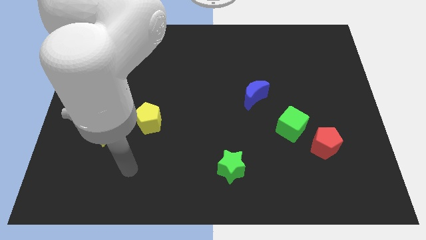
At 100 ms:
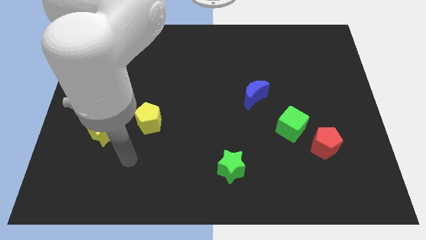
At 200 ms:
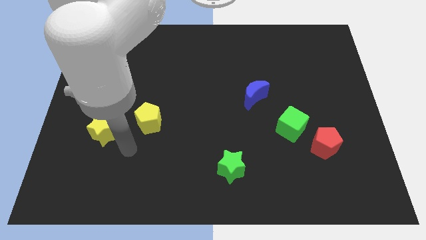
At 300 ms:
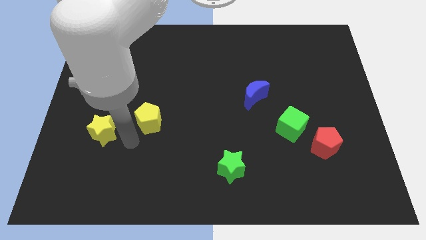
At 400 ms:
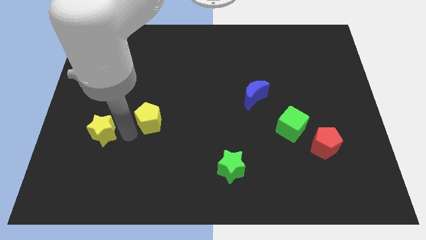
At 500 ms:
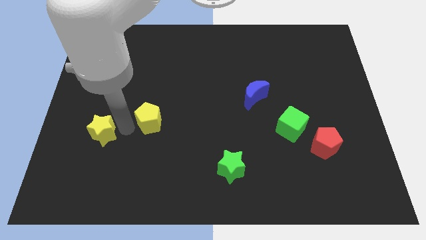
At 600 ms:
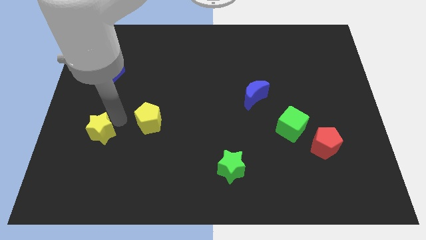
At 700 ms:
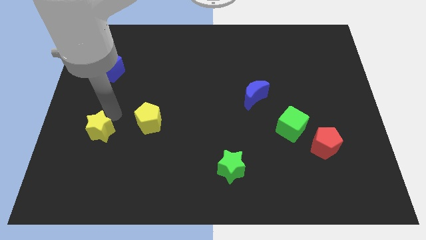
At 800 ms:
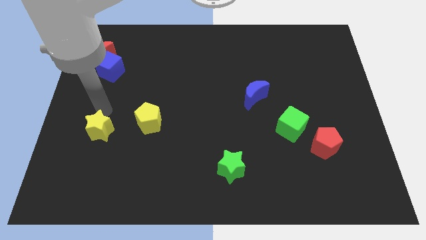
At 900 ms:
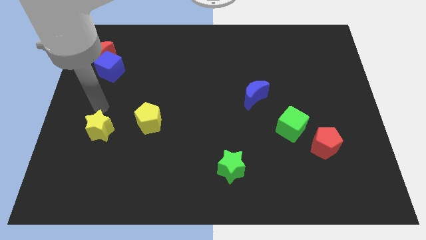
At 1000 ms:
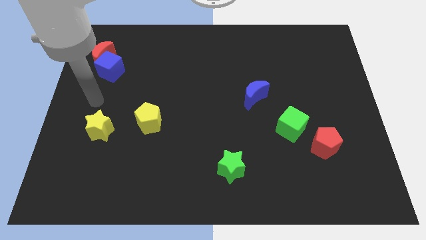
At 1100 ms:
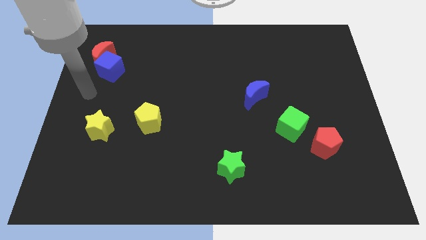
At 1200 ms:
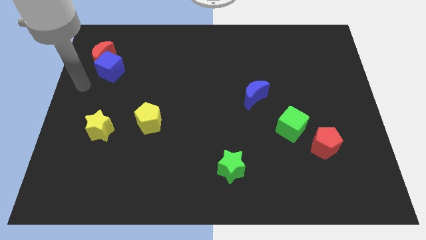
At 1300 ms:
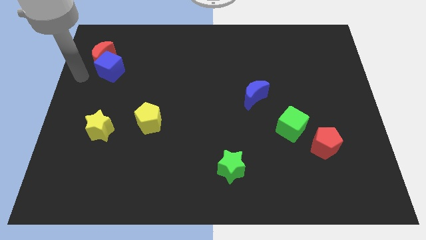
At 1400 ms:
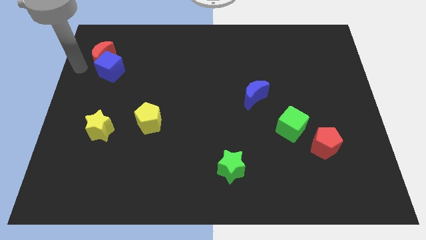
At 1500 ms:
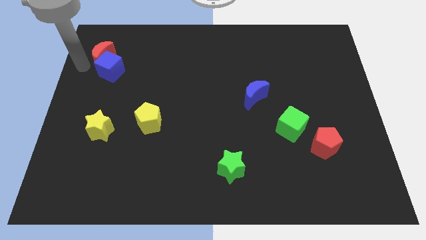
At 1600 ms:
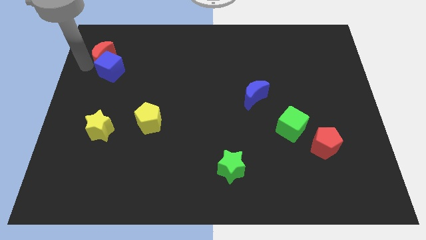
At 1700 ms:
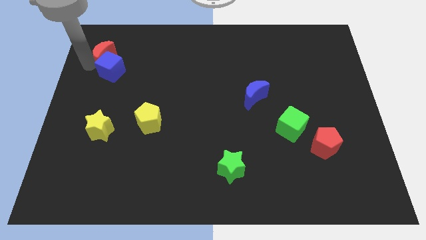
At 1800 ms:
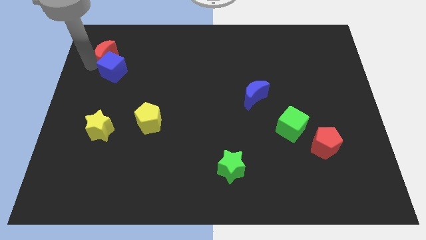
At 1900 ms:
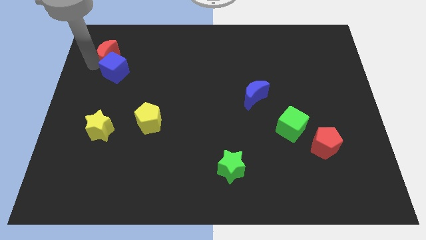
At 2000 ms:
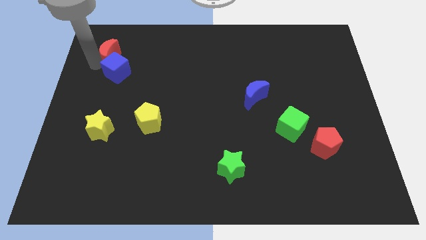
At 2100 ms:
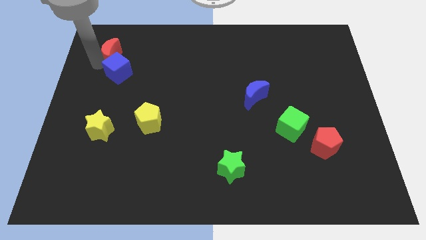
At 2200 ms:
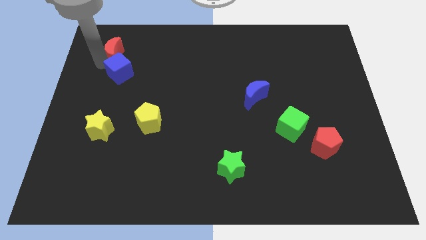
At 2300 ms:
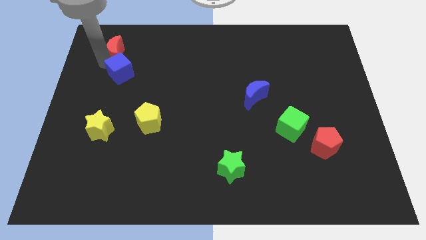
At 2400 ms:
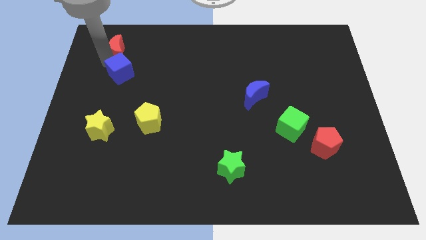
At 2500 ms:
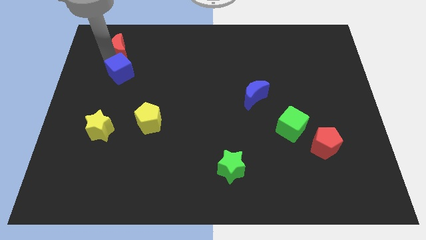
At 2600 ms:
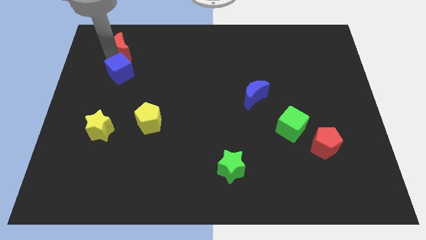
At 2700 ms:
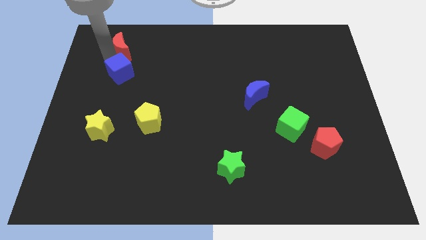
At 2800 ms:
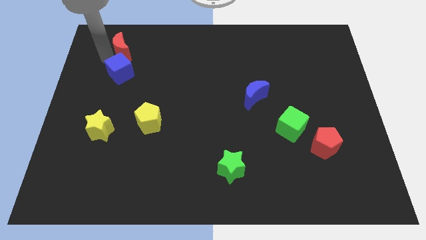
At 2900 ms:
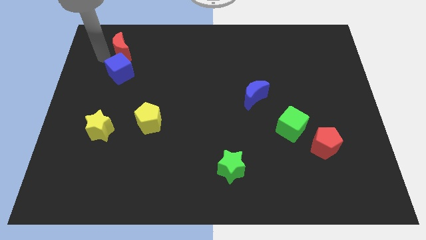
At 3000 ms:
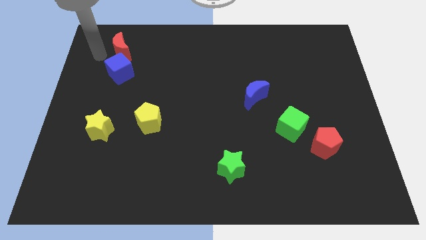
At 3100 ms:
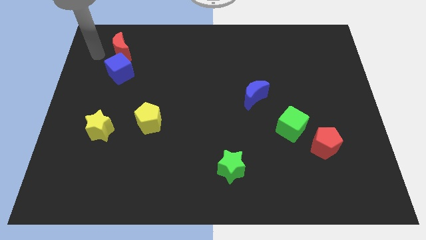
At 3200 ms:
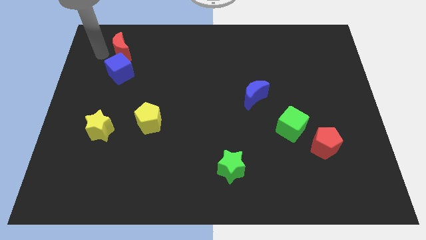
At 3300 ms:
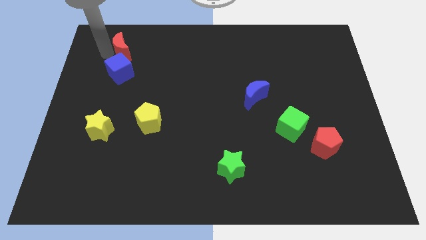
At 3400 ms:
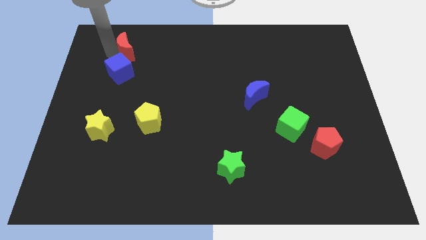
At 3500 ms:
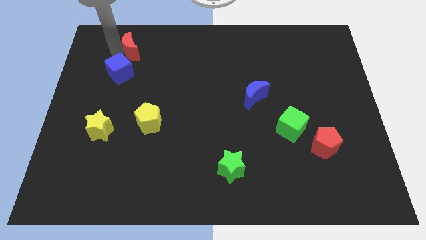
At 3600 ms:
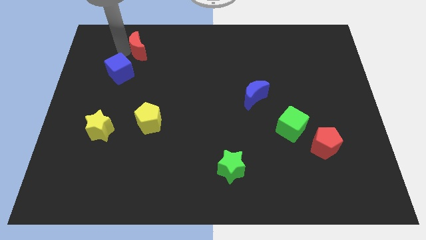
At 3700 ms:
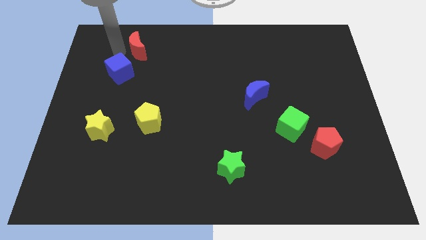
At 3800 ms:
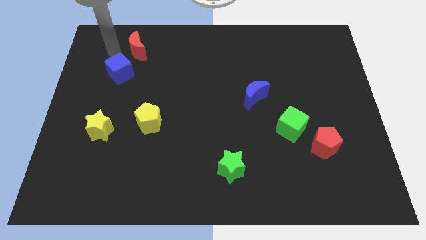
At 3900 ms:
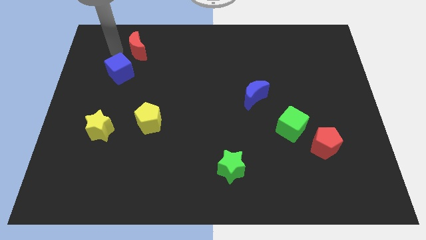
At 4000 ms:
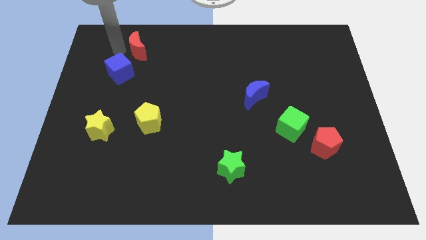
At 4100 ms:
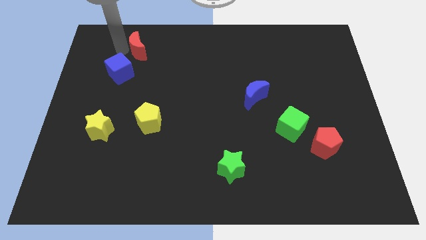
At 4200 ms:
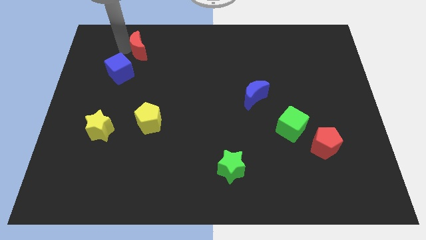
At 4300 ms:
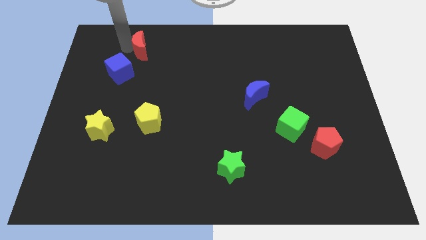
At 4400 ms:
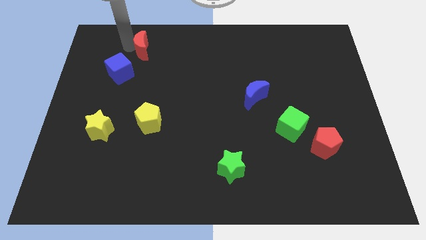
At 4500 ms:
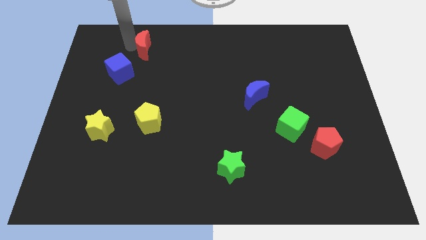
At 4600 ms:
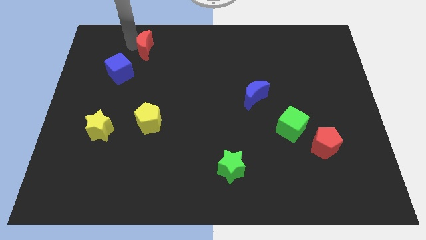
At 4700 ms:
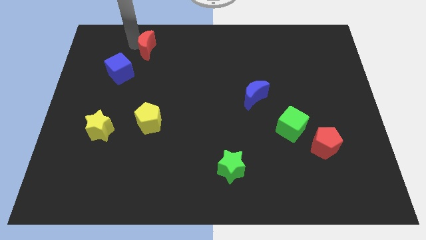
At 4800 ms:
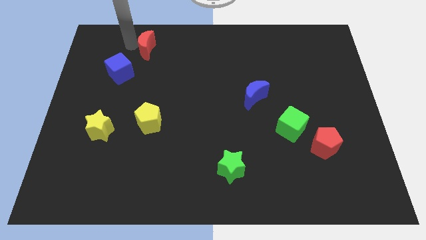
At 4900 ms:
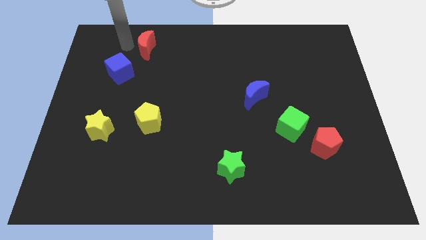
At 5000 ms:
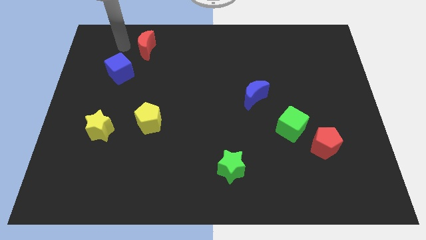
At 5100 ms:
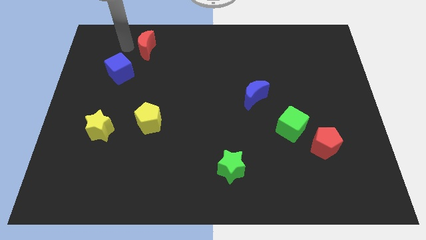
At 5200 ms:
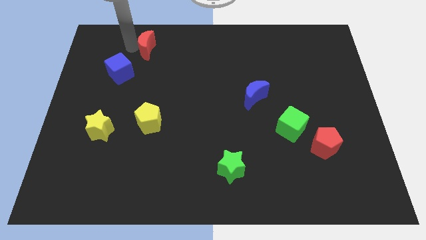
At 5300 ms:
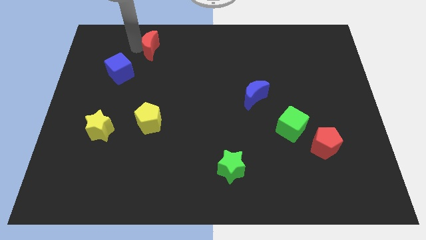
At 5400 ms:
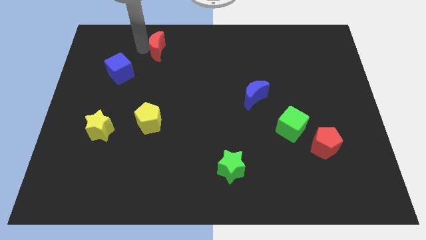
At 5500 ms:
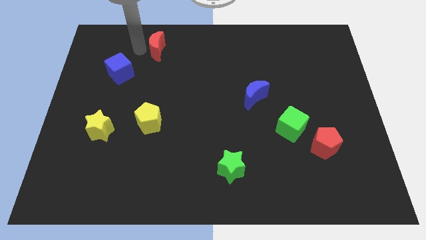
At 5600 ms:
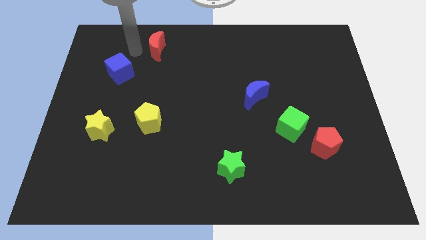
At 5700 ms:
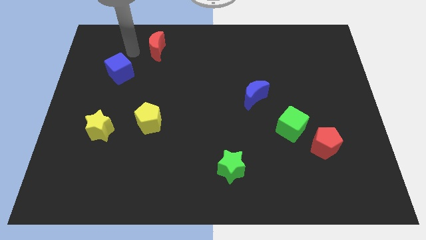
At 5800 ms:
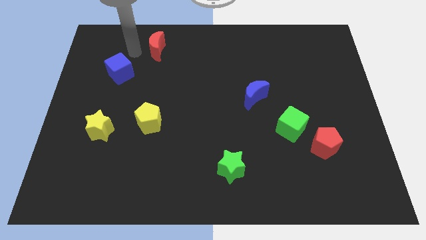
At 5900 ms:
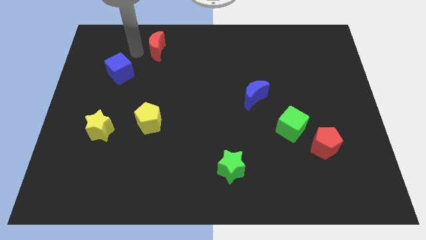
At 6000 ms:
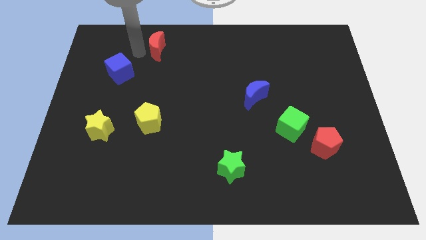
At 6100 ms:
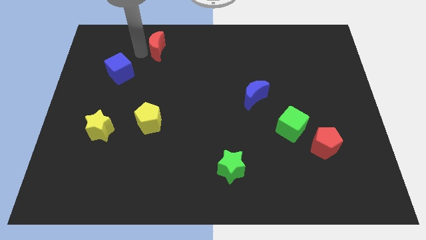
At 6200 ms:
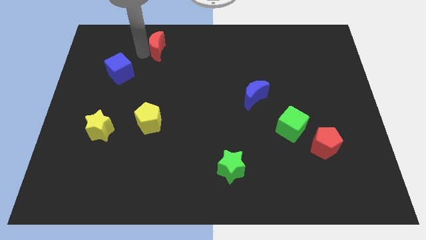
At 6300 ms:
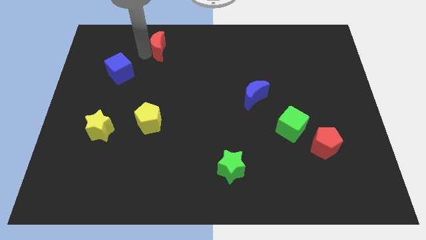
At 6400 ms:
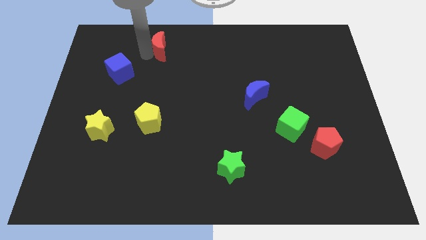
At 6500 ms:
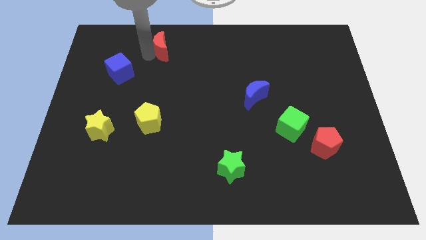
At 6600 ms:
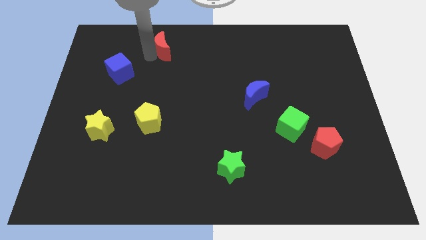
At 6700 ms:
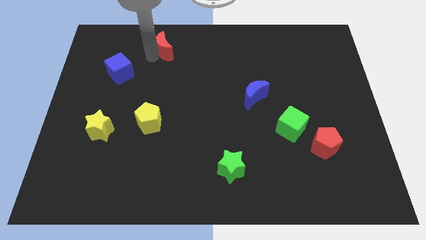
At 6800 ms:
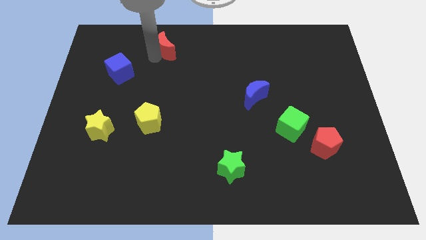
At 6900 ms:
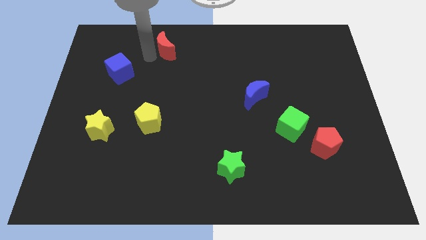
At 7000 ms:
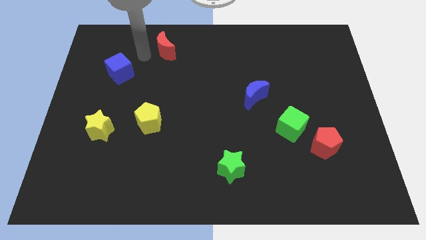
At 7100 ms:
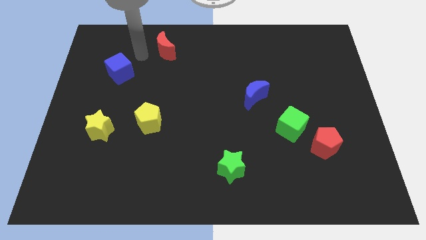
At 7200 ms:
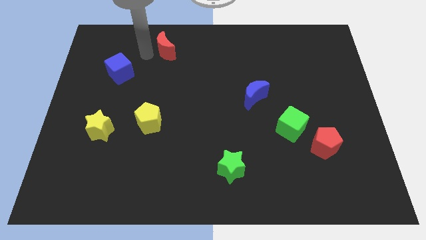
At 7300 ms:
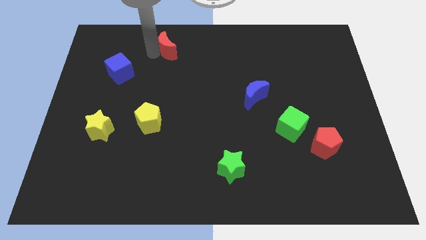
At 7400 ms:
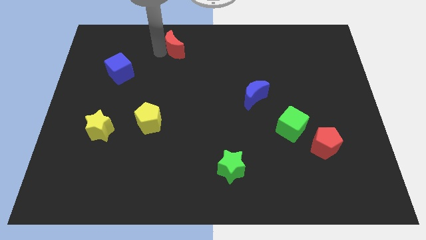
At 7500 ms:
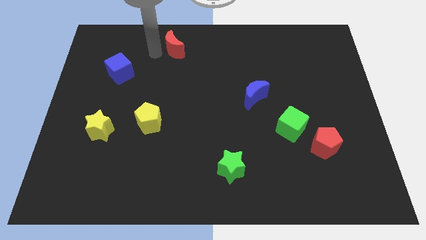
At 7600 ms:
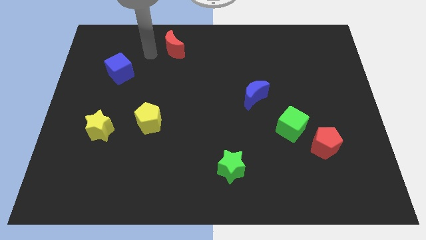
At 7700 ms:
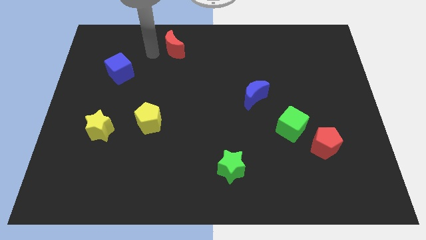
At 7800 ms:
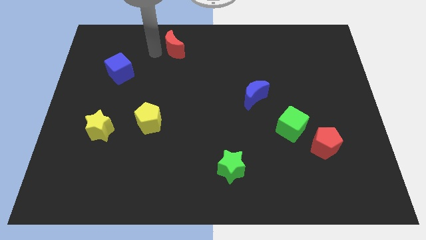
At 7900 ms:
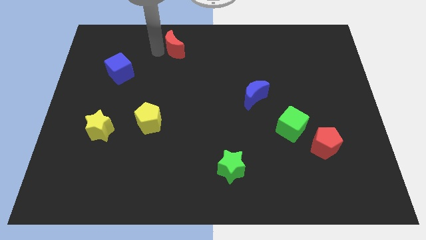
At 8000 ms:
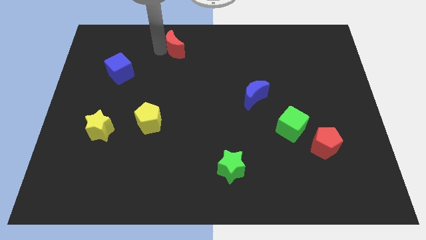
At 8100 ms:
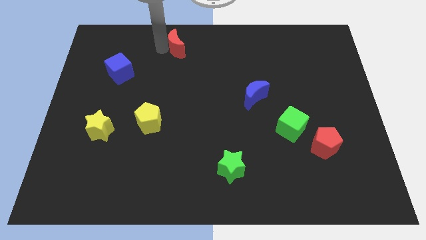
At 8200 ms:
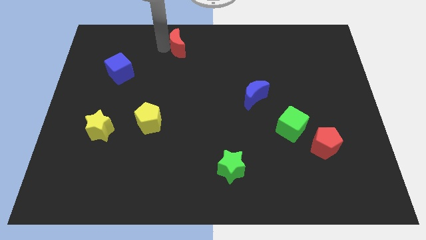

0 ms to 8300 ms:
push the red moon to the top
